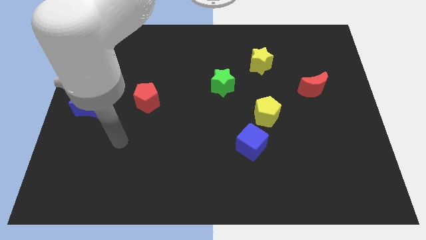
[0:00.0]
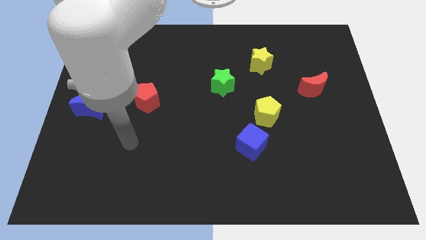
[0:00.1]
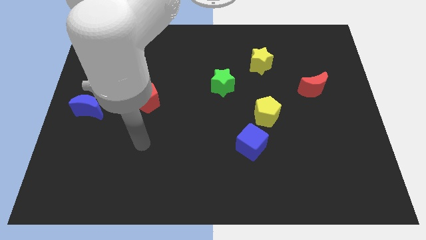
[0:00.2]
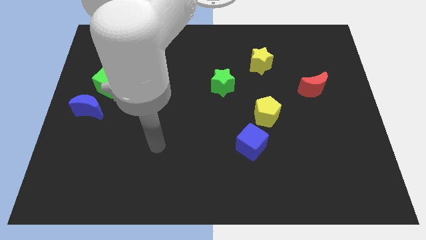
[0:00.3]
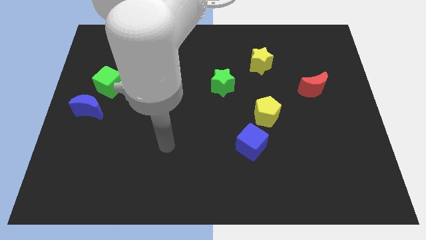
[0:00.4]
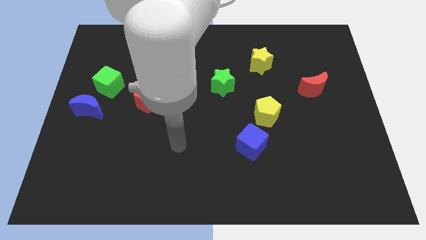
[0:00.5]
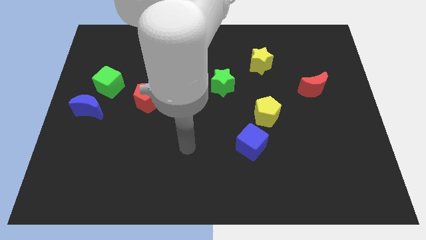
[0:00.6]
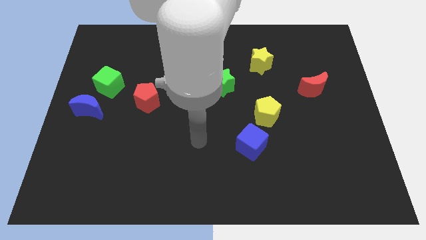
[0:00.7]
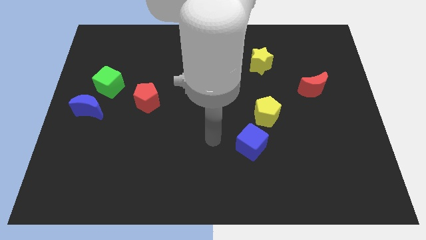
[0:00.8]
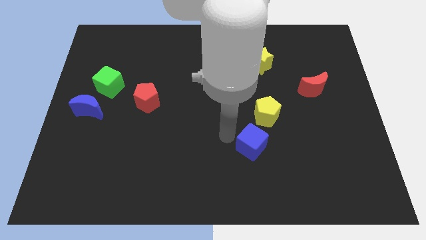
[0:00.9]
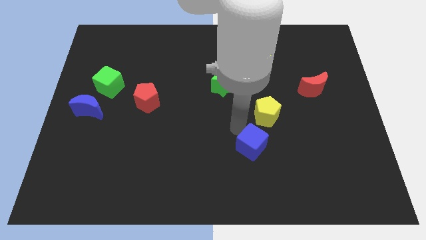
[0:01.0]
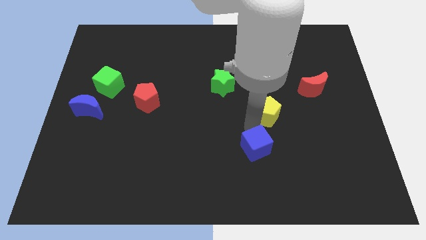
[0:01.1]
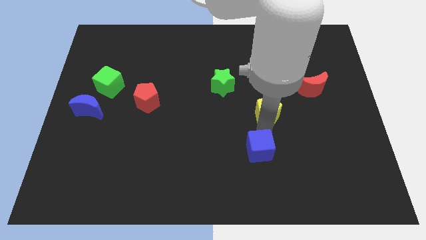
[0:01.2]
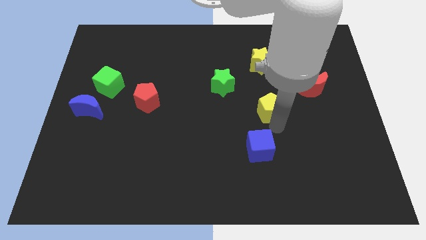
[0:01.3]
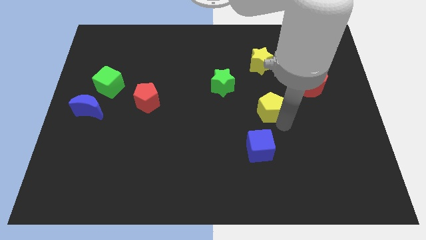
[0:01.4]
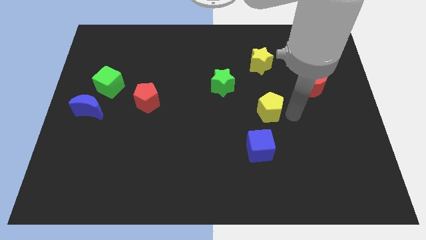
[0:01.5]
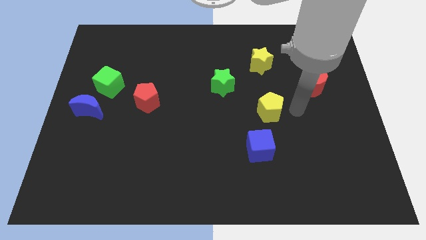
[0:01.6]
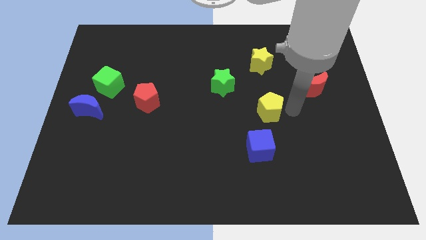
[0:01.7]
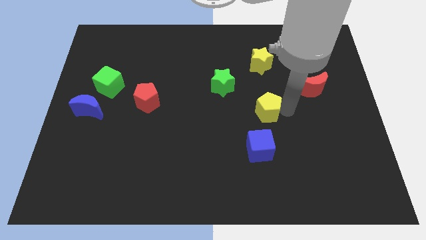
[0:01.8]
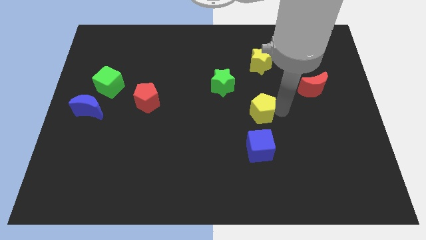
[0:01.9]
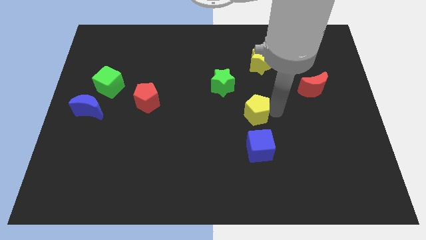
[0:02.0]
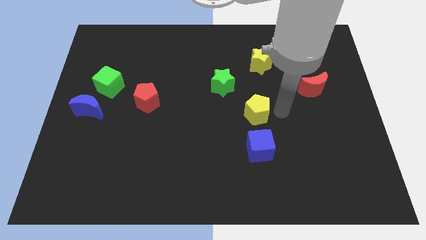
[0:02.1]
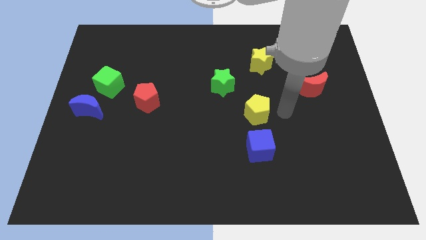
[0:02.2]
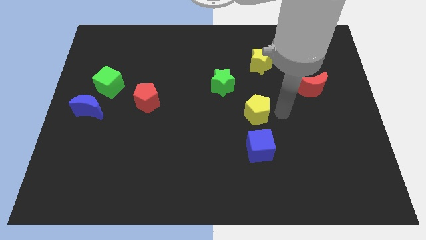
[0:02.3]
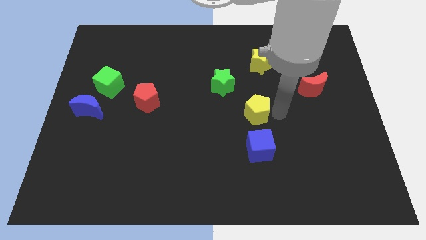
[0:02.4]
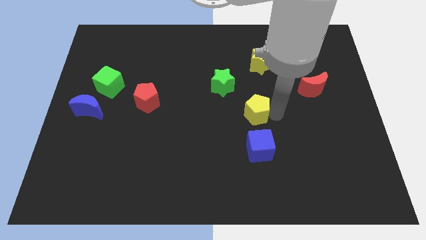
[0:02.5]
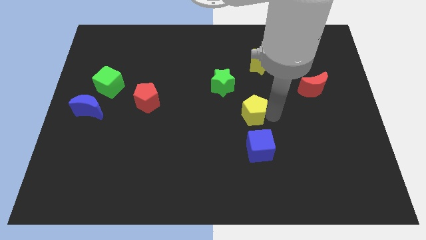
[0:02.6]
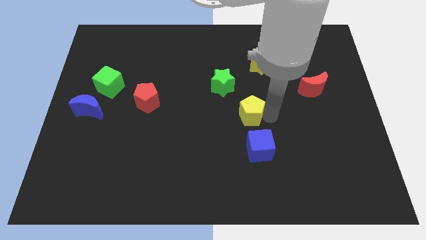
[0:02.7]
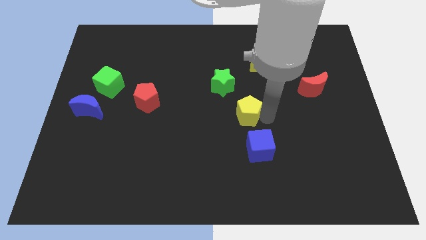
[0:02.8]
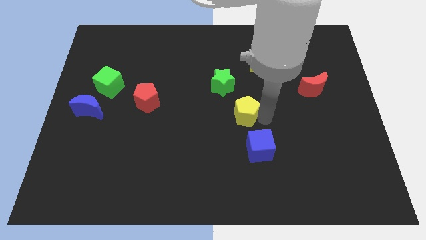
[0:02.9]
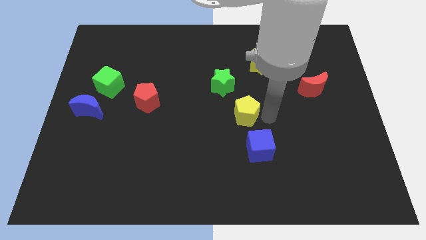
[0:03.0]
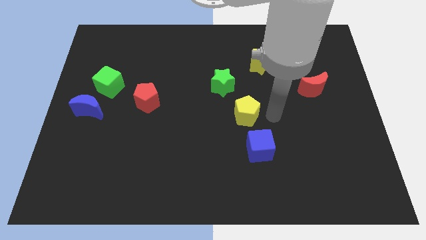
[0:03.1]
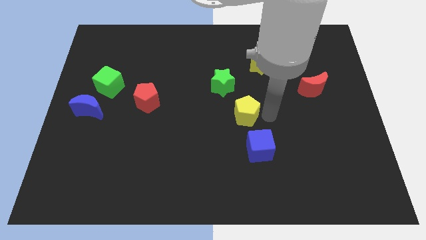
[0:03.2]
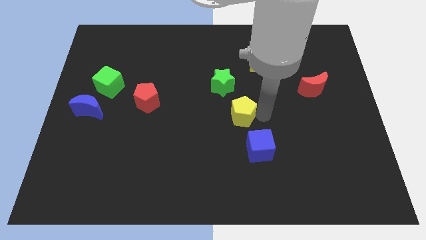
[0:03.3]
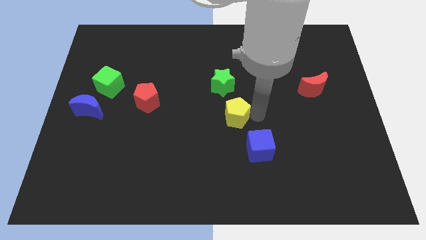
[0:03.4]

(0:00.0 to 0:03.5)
move the yellow pentagon a bit left

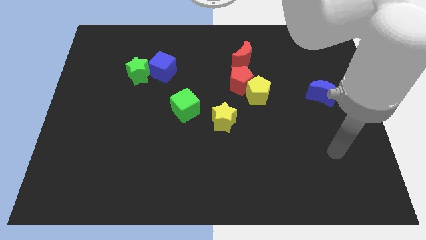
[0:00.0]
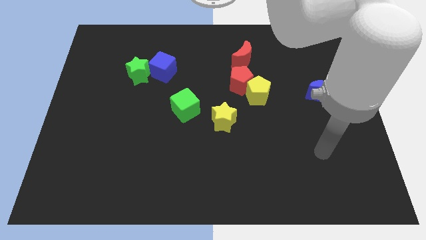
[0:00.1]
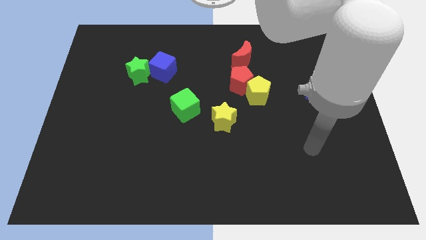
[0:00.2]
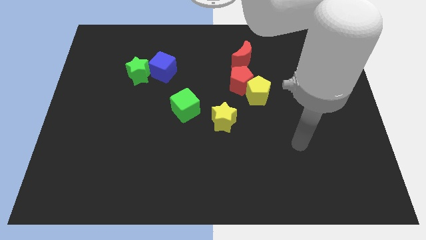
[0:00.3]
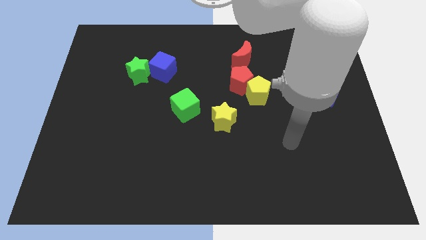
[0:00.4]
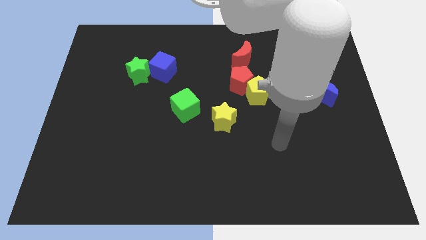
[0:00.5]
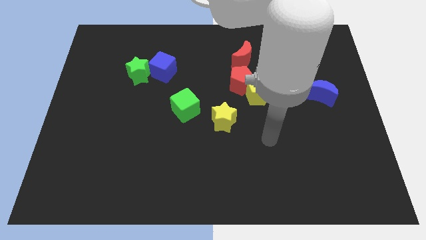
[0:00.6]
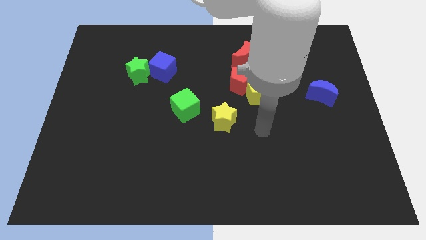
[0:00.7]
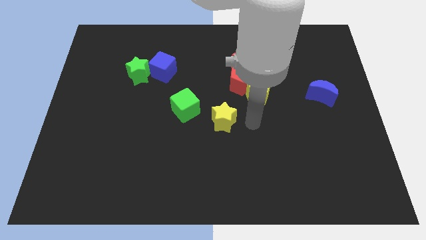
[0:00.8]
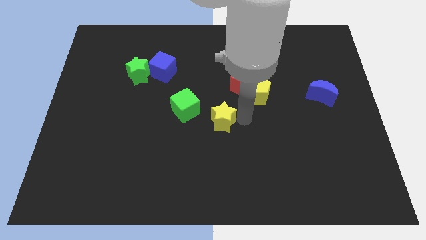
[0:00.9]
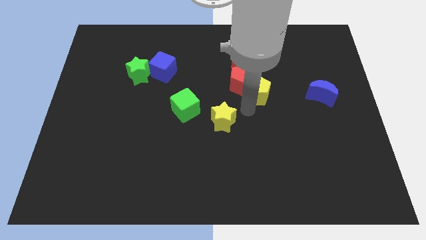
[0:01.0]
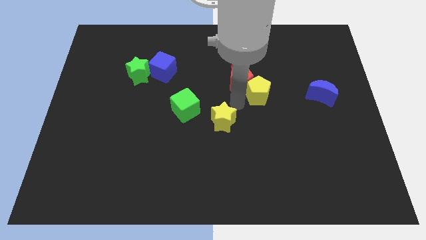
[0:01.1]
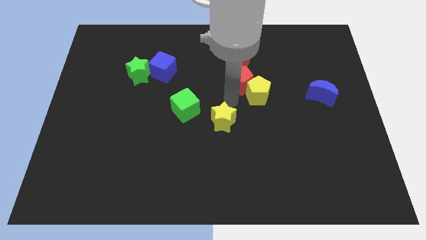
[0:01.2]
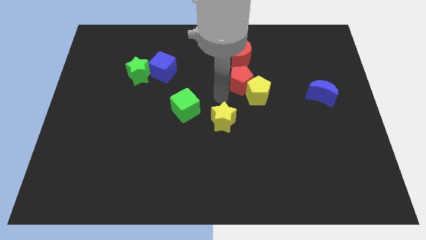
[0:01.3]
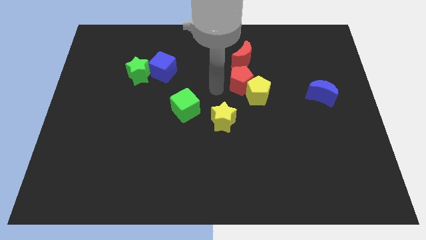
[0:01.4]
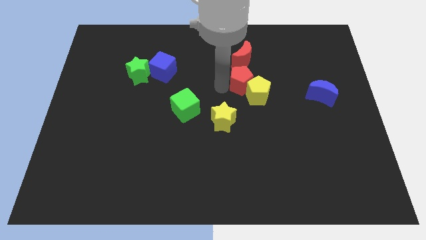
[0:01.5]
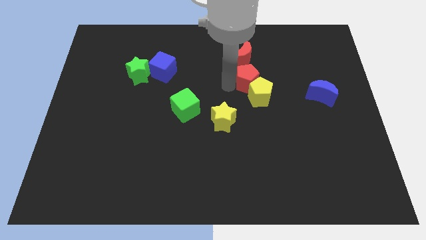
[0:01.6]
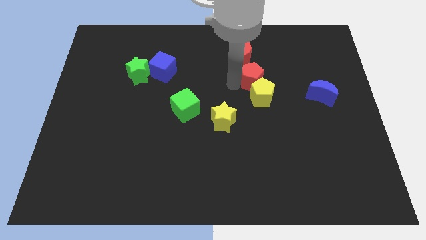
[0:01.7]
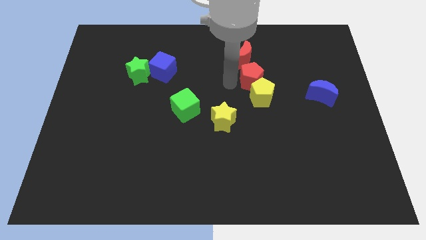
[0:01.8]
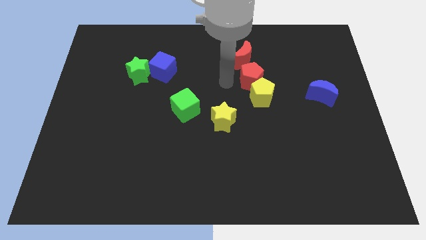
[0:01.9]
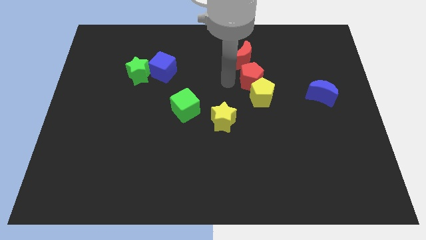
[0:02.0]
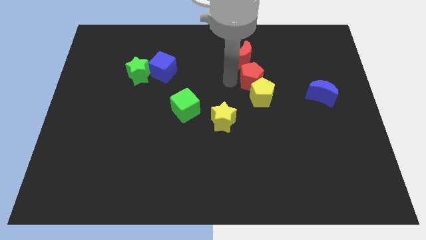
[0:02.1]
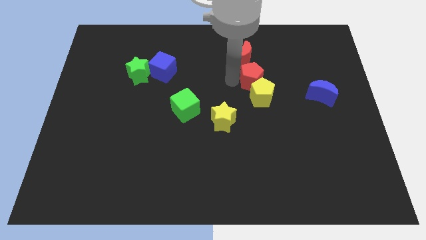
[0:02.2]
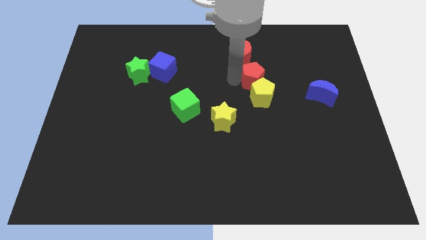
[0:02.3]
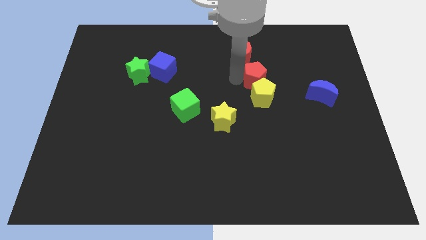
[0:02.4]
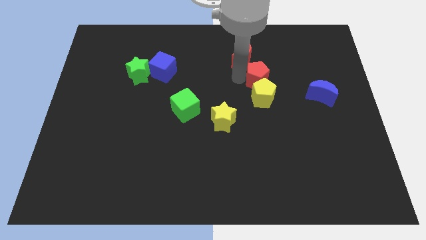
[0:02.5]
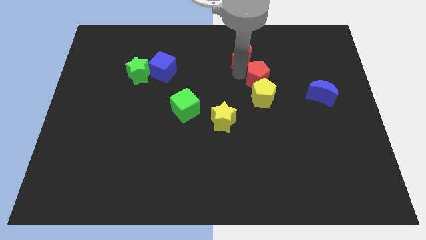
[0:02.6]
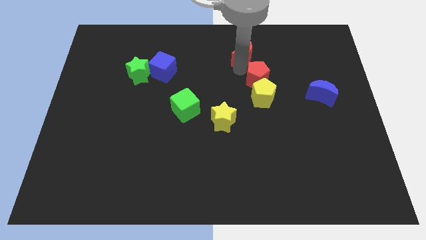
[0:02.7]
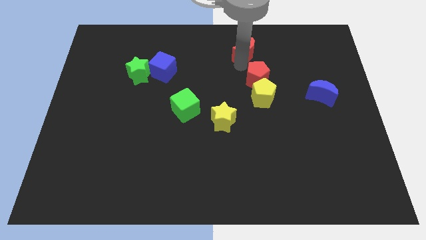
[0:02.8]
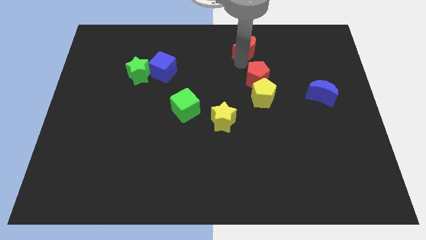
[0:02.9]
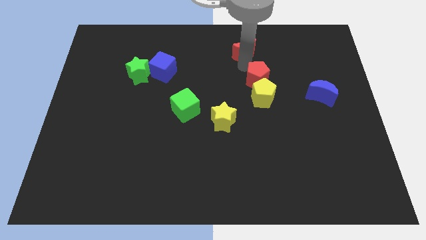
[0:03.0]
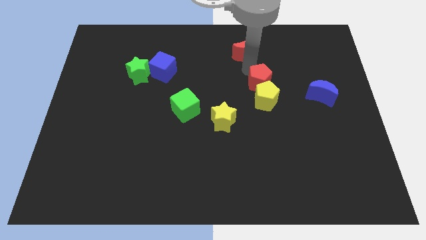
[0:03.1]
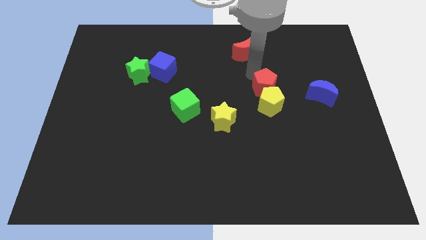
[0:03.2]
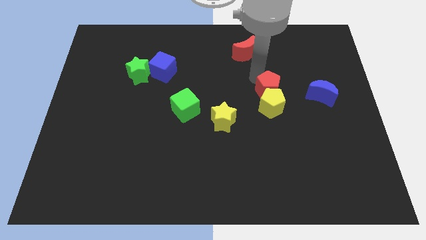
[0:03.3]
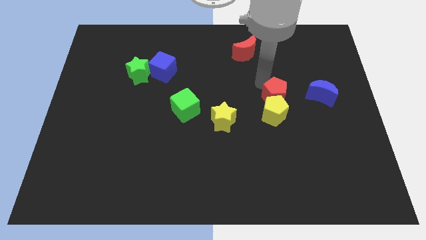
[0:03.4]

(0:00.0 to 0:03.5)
slightly slide the red pentagon downwards and then to the right

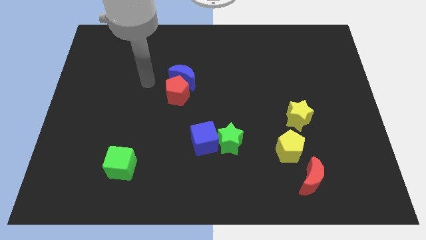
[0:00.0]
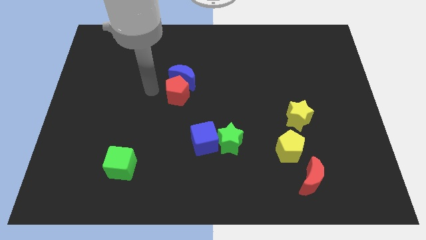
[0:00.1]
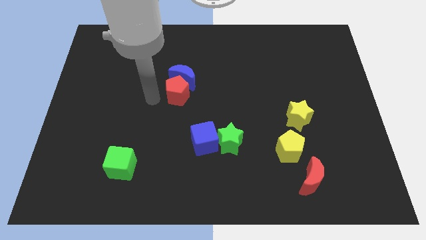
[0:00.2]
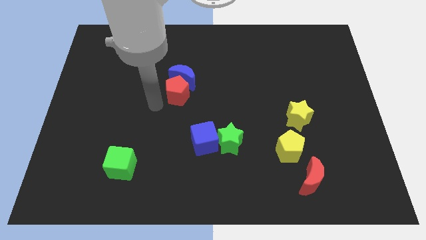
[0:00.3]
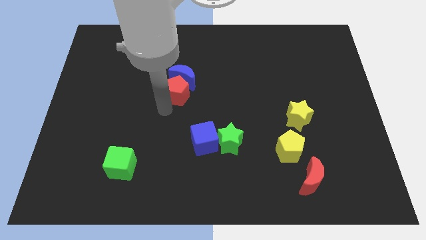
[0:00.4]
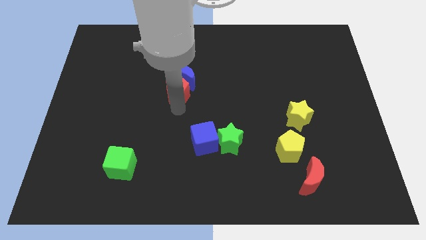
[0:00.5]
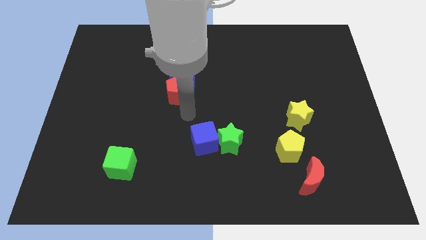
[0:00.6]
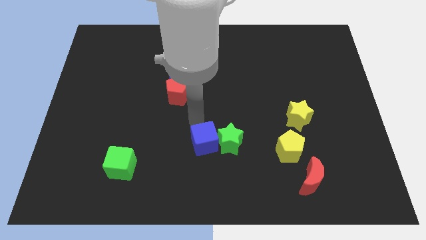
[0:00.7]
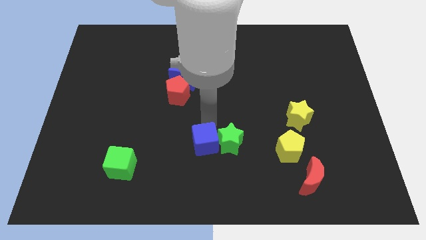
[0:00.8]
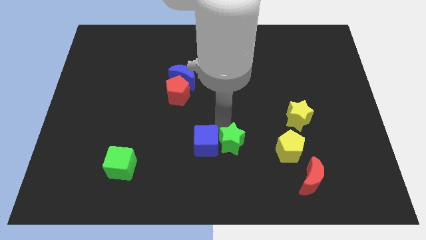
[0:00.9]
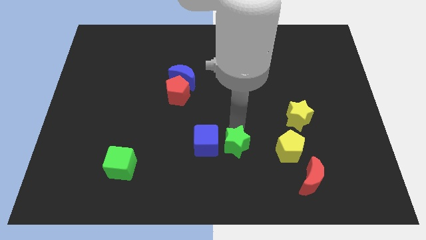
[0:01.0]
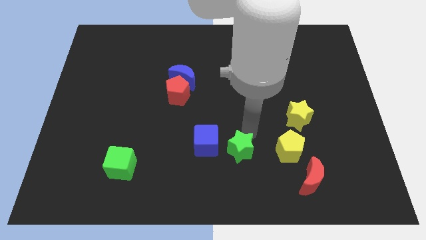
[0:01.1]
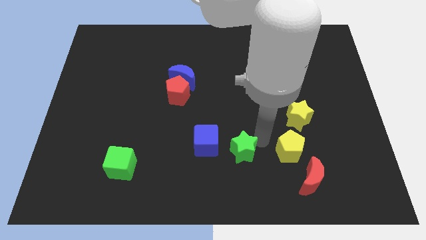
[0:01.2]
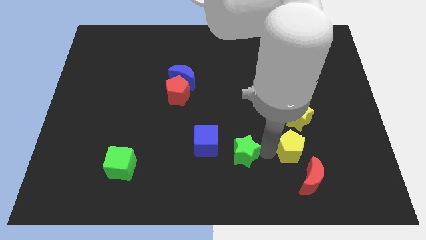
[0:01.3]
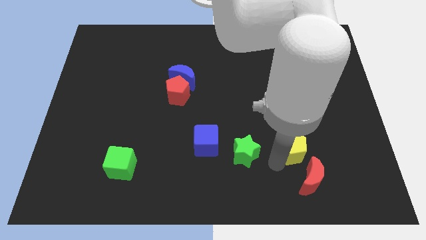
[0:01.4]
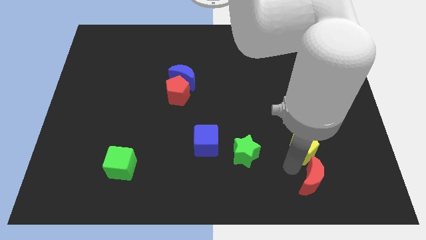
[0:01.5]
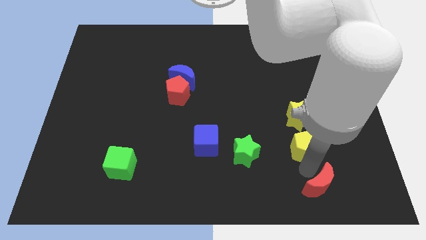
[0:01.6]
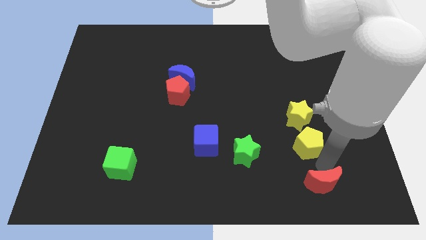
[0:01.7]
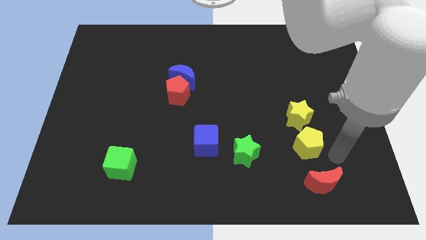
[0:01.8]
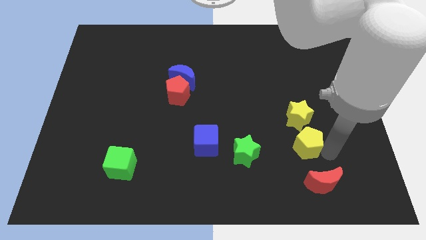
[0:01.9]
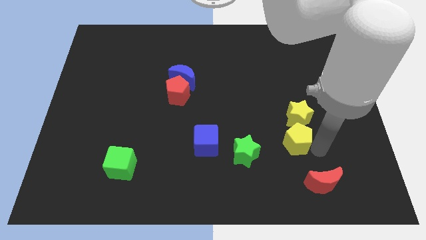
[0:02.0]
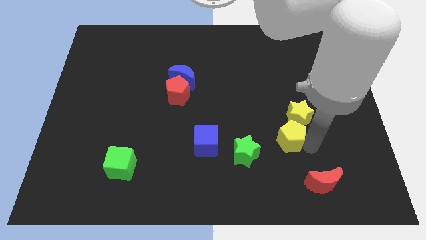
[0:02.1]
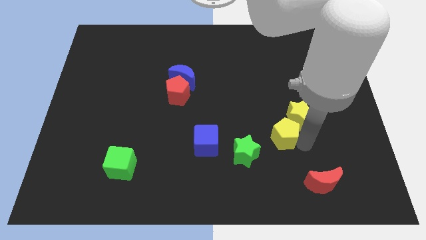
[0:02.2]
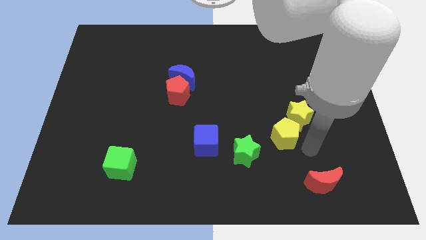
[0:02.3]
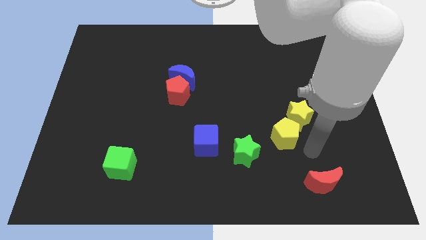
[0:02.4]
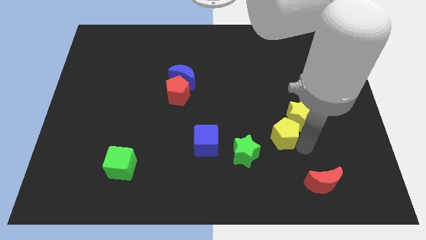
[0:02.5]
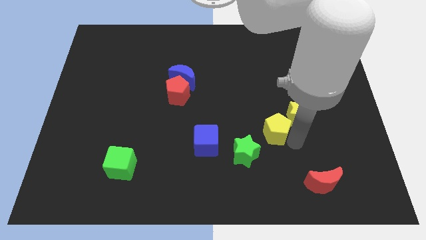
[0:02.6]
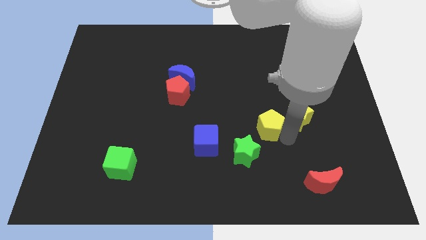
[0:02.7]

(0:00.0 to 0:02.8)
move the yellow pentagon a bit up and left
